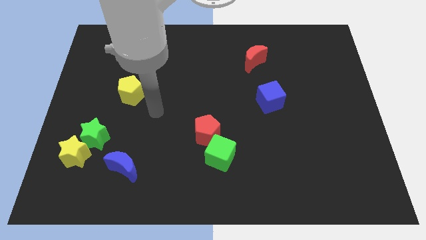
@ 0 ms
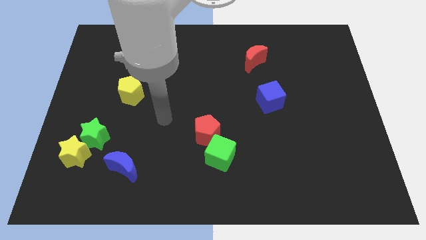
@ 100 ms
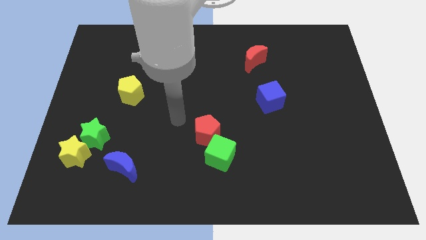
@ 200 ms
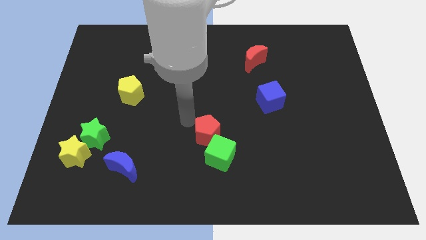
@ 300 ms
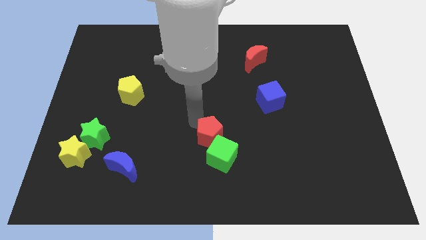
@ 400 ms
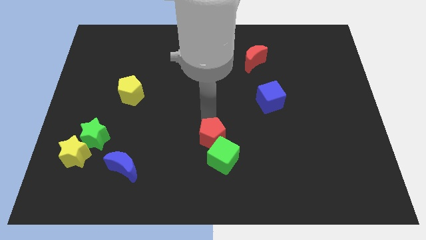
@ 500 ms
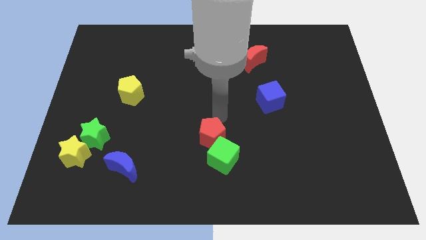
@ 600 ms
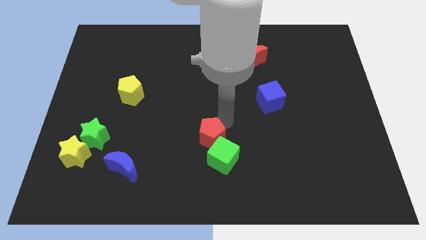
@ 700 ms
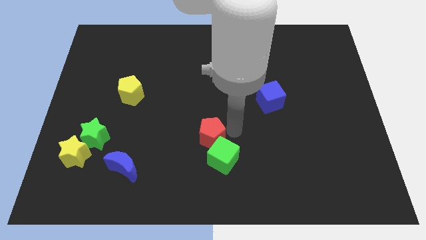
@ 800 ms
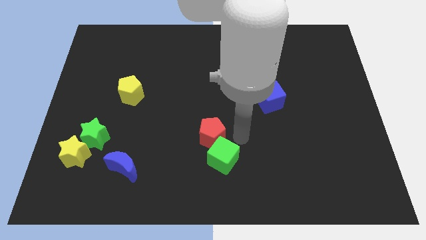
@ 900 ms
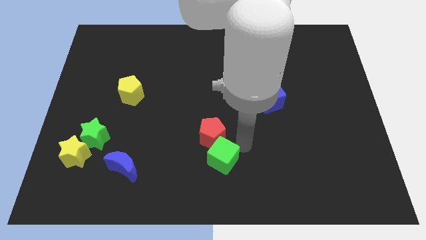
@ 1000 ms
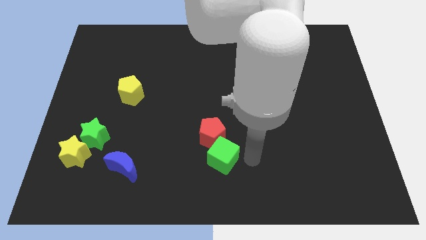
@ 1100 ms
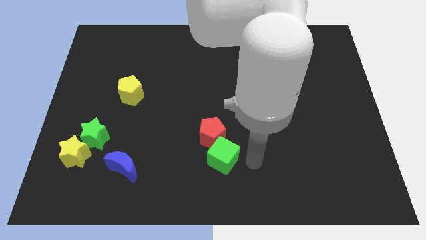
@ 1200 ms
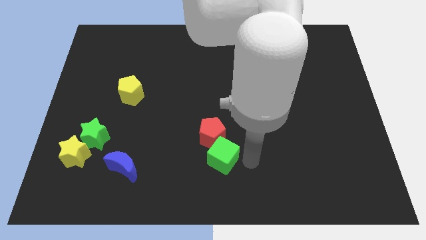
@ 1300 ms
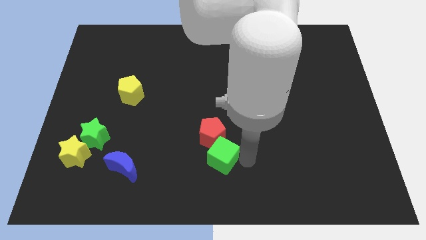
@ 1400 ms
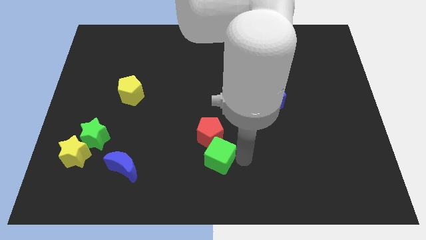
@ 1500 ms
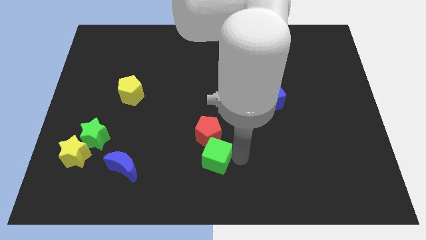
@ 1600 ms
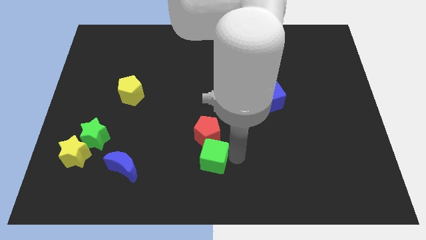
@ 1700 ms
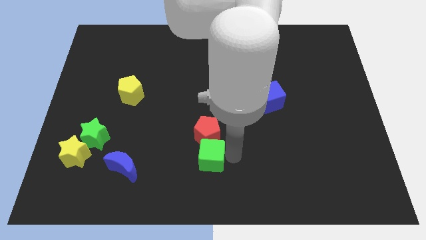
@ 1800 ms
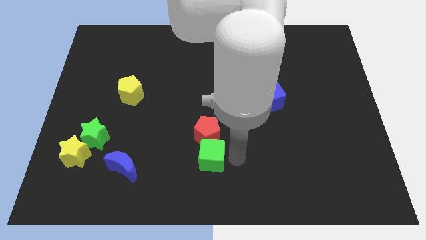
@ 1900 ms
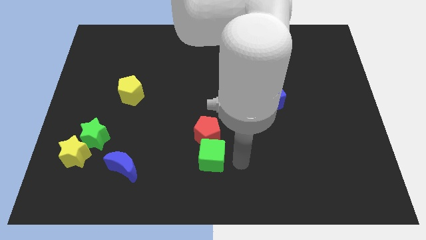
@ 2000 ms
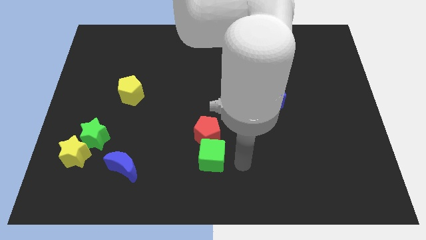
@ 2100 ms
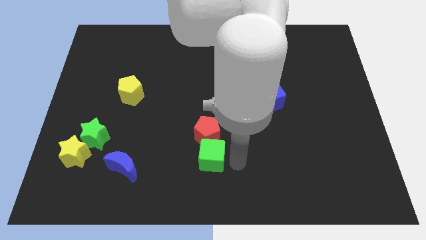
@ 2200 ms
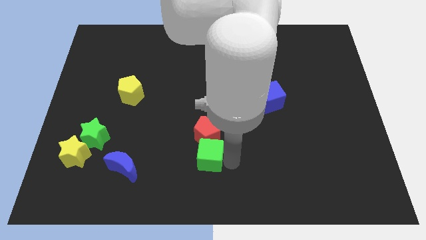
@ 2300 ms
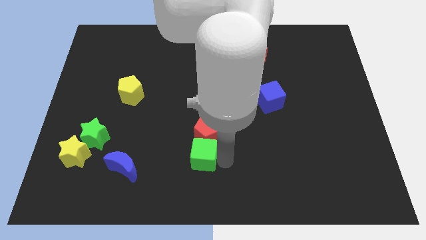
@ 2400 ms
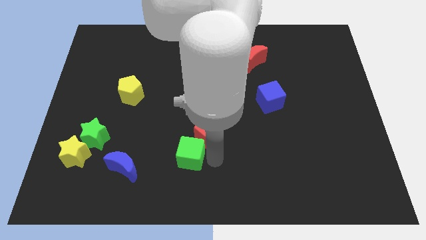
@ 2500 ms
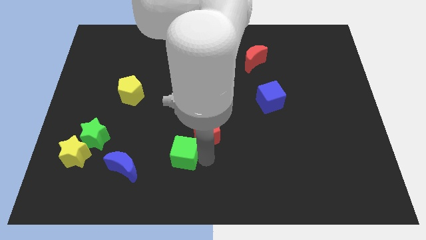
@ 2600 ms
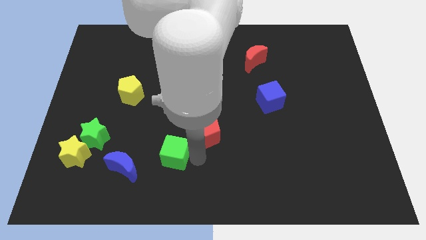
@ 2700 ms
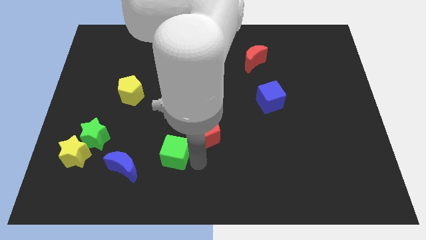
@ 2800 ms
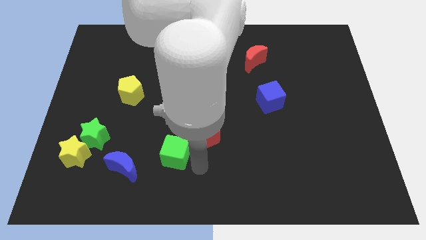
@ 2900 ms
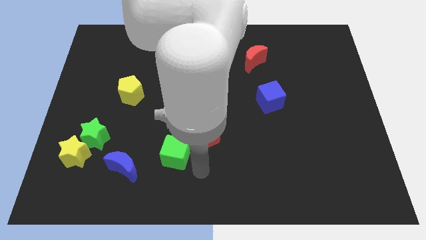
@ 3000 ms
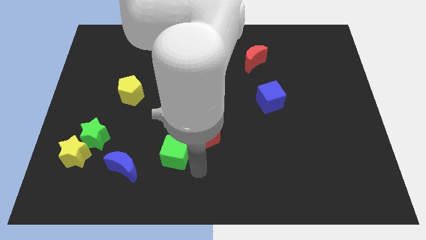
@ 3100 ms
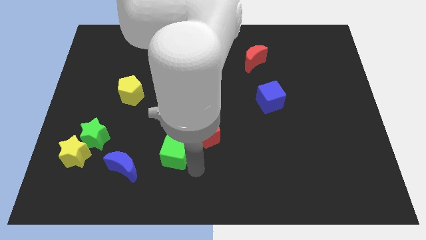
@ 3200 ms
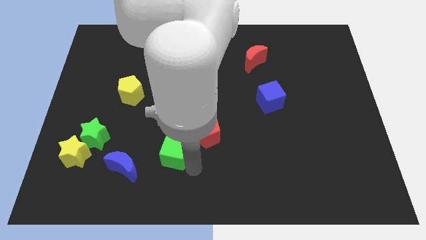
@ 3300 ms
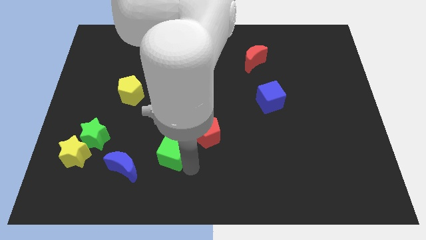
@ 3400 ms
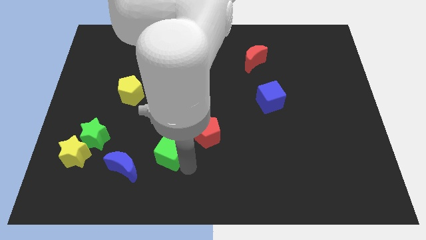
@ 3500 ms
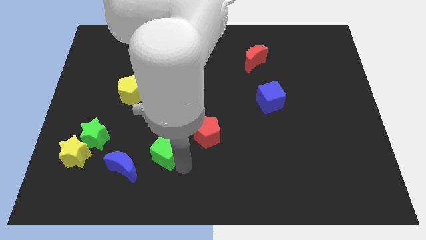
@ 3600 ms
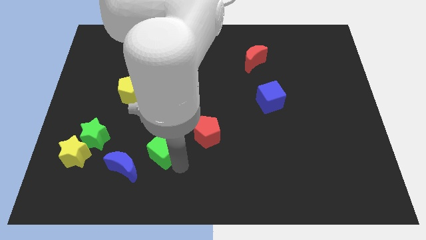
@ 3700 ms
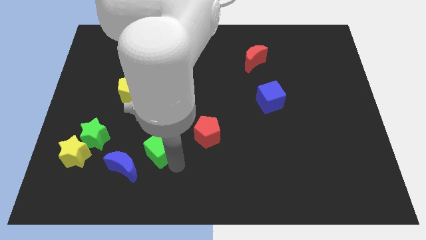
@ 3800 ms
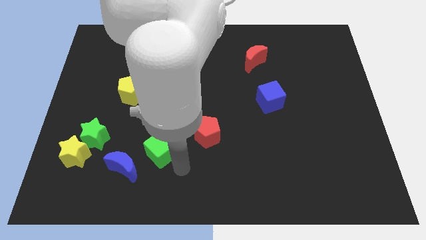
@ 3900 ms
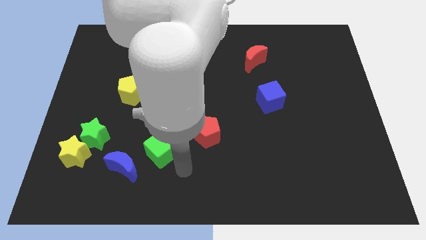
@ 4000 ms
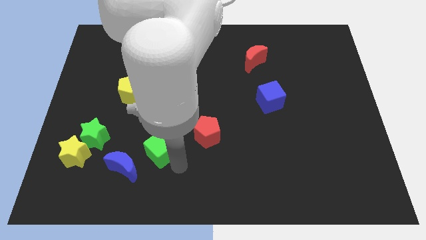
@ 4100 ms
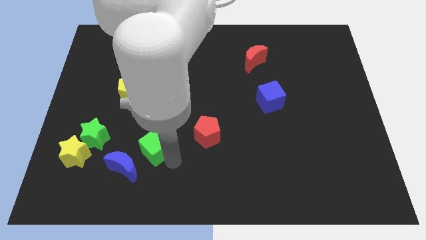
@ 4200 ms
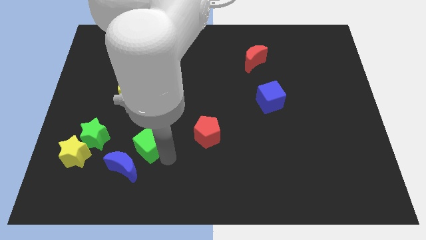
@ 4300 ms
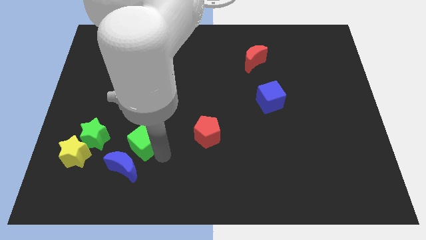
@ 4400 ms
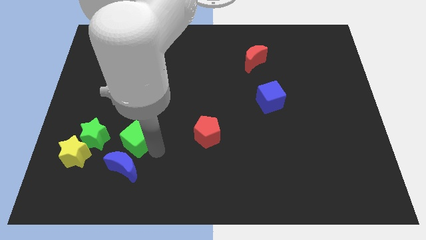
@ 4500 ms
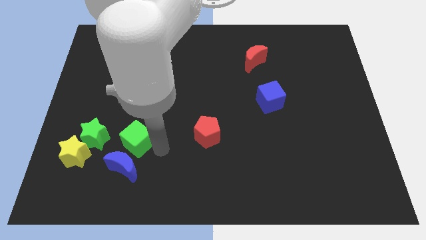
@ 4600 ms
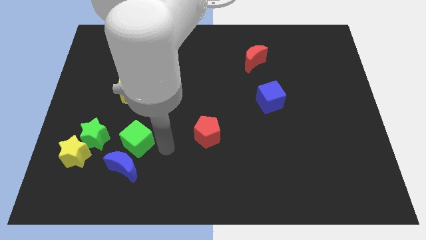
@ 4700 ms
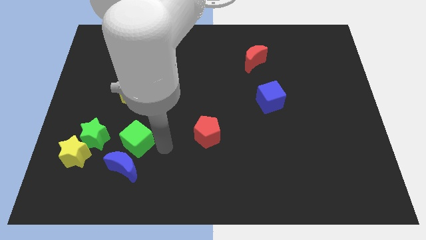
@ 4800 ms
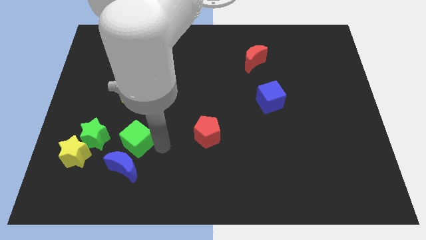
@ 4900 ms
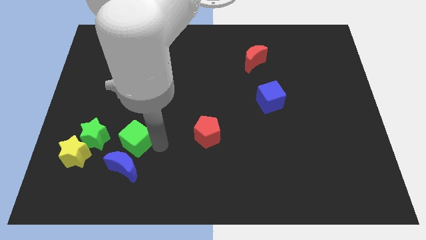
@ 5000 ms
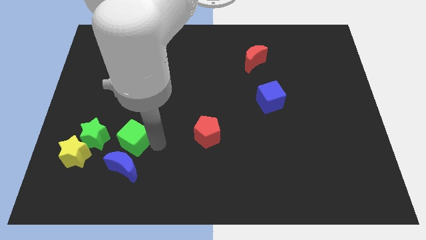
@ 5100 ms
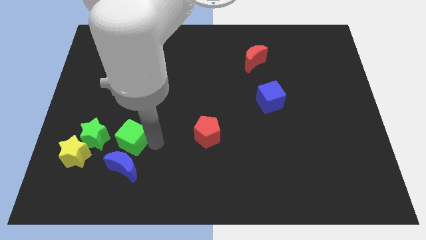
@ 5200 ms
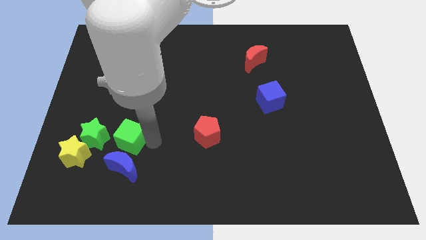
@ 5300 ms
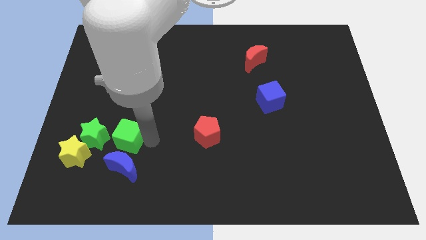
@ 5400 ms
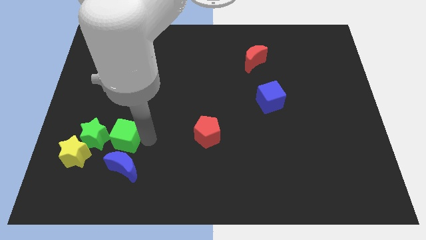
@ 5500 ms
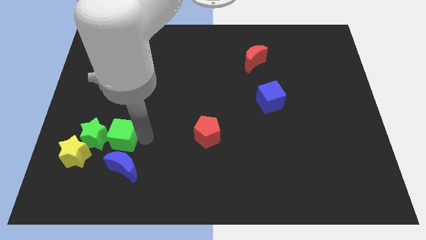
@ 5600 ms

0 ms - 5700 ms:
put the green cube towards the green star

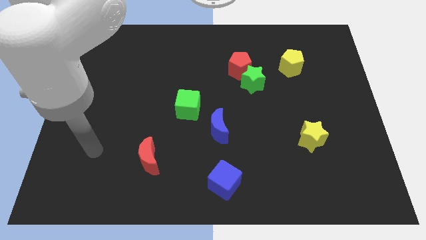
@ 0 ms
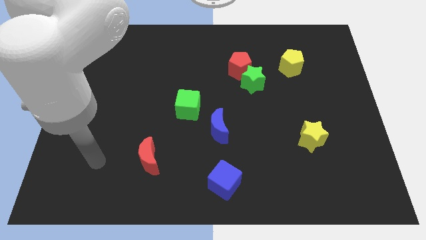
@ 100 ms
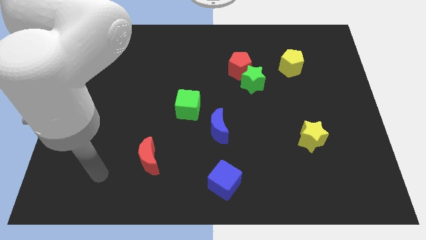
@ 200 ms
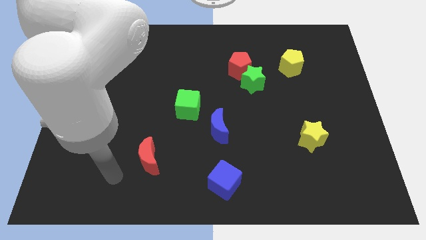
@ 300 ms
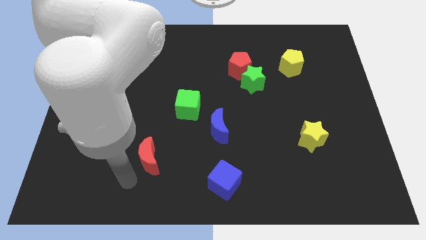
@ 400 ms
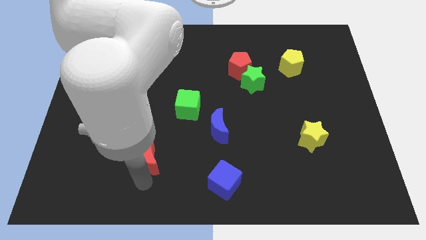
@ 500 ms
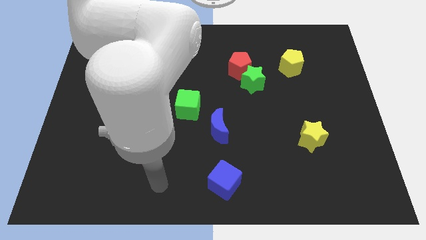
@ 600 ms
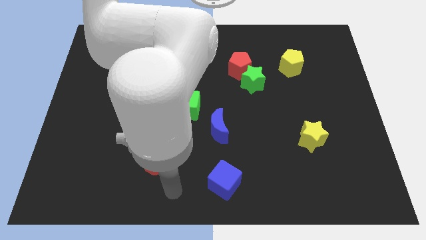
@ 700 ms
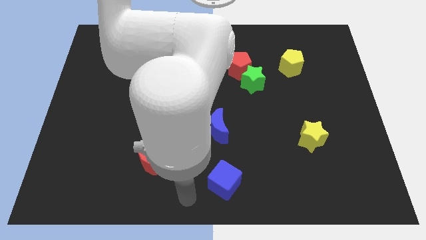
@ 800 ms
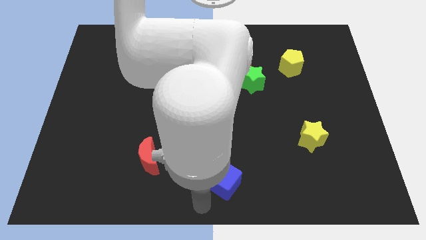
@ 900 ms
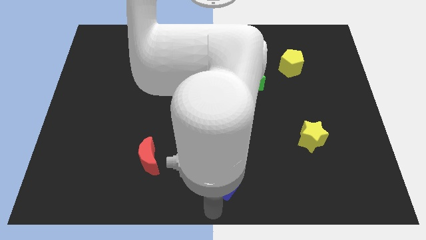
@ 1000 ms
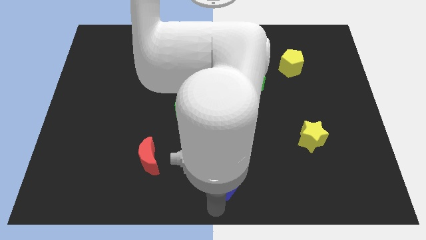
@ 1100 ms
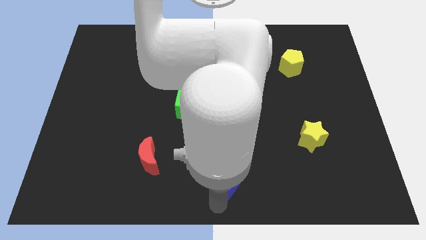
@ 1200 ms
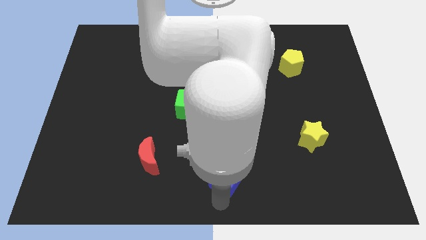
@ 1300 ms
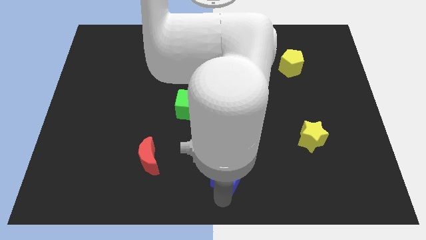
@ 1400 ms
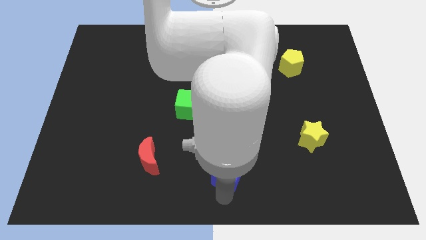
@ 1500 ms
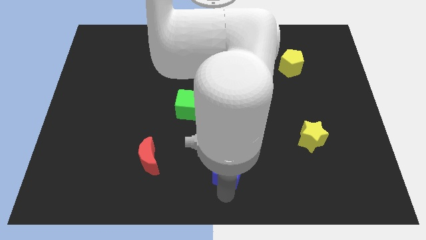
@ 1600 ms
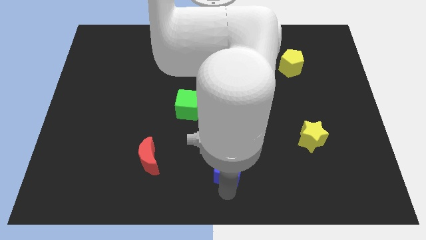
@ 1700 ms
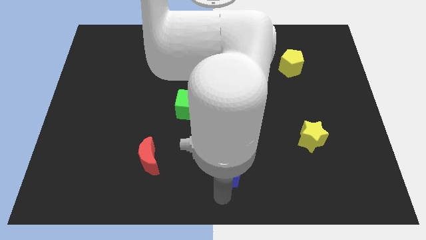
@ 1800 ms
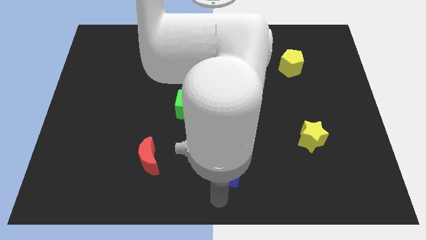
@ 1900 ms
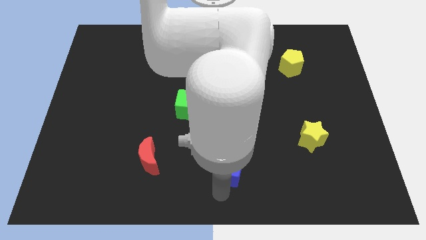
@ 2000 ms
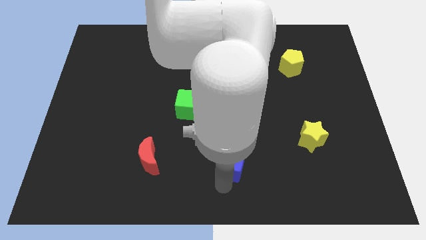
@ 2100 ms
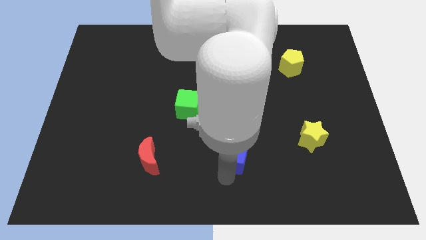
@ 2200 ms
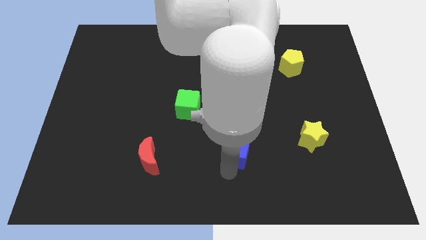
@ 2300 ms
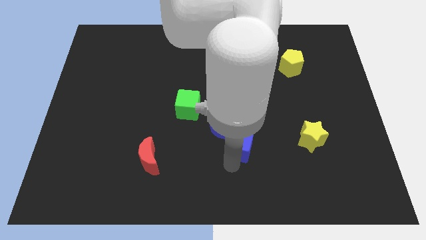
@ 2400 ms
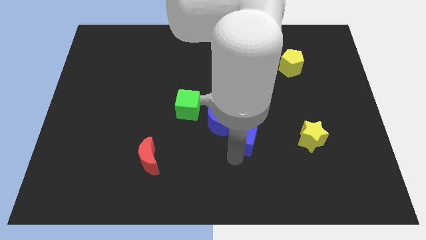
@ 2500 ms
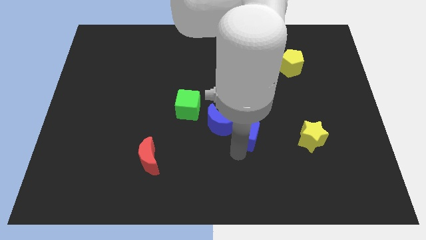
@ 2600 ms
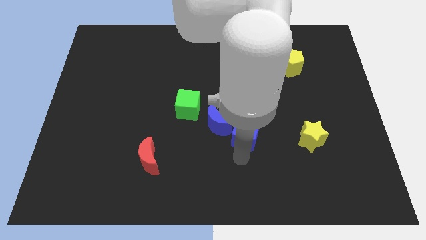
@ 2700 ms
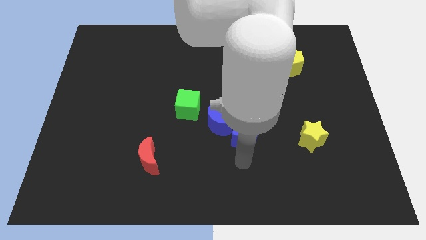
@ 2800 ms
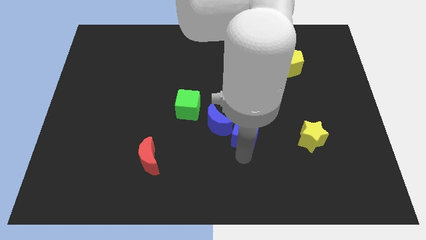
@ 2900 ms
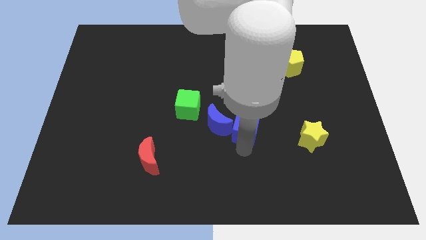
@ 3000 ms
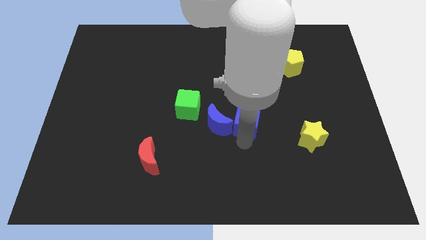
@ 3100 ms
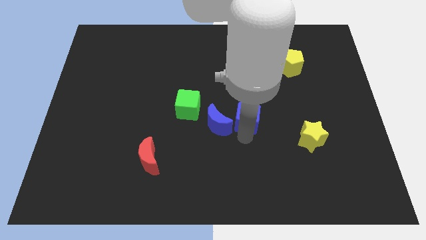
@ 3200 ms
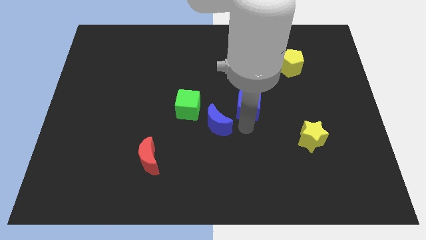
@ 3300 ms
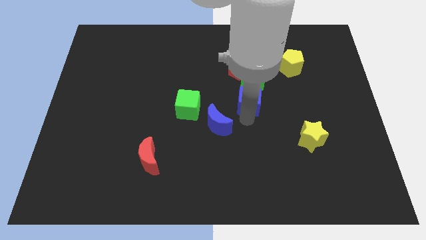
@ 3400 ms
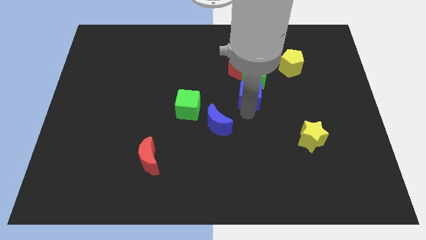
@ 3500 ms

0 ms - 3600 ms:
slide the blue cube next to the green star
